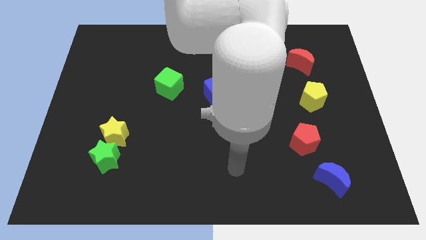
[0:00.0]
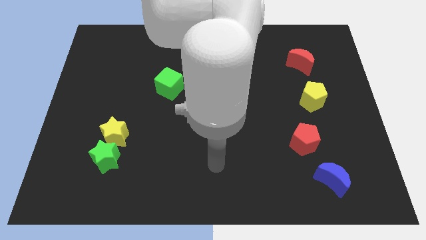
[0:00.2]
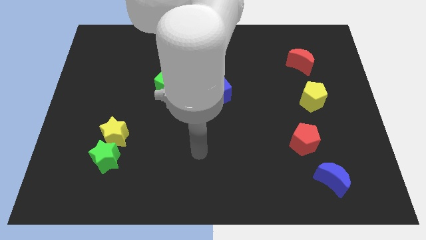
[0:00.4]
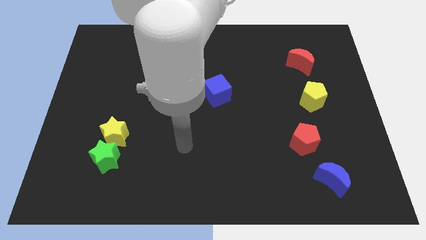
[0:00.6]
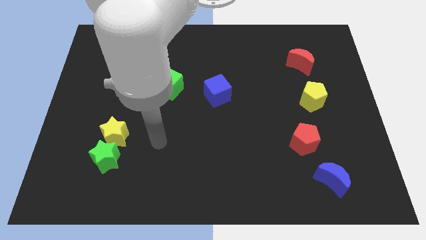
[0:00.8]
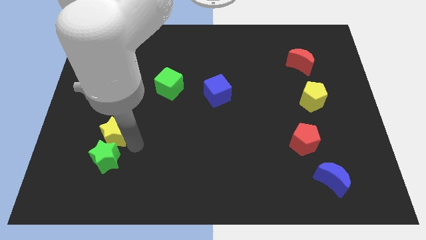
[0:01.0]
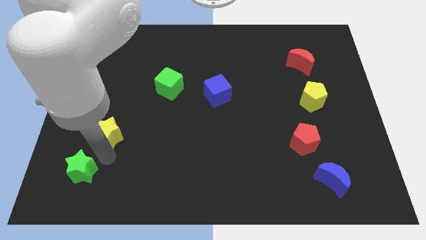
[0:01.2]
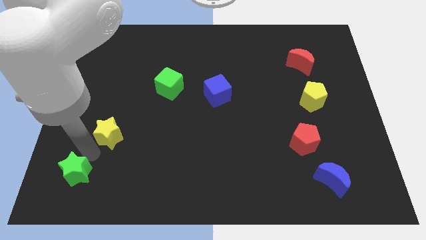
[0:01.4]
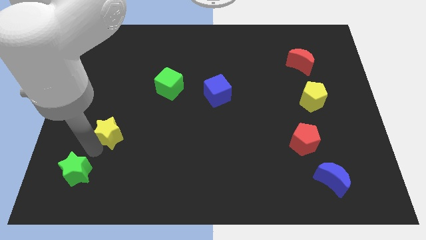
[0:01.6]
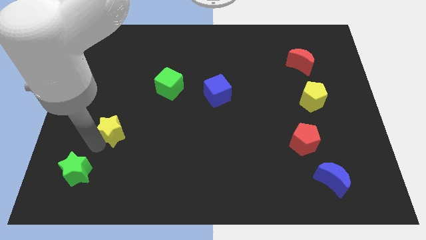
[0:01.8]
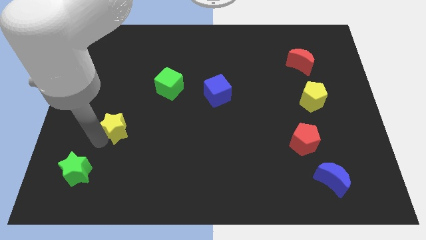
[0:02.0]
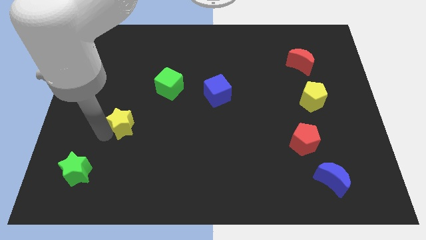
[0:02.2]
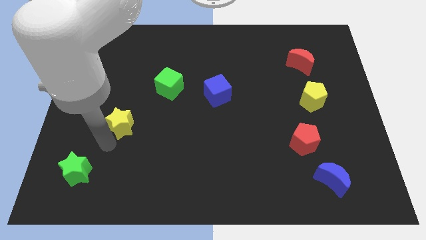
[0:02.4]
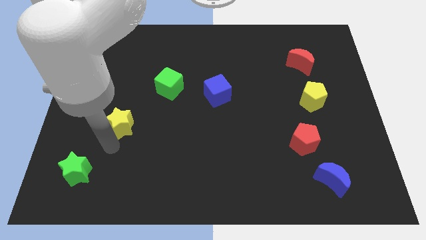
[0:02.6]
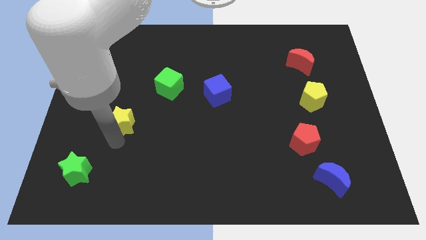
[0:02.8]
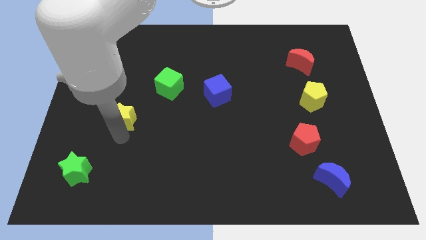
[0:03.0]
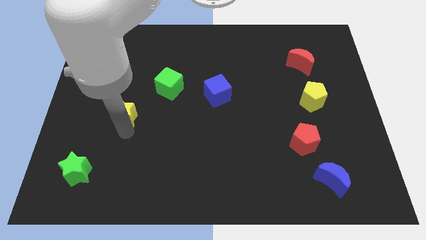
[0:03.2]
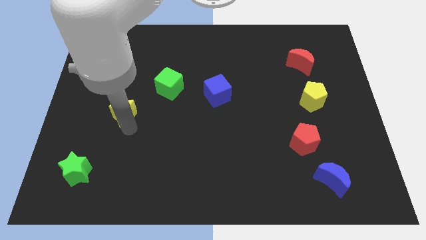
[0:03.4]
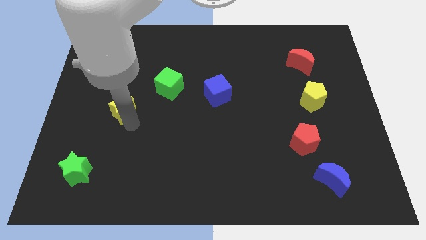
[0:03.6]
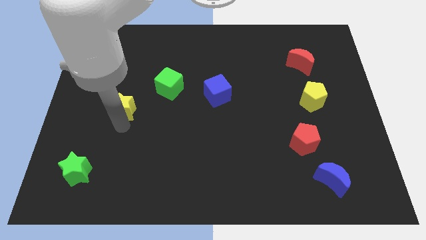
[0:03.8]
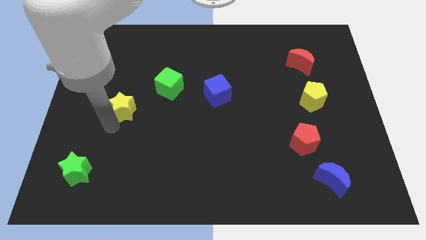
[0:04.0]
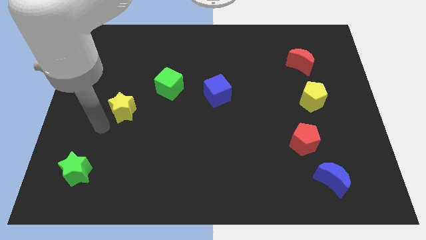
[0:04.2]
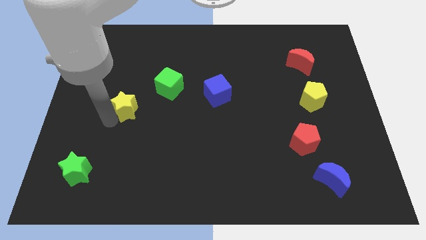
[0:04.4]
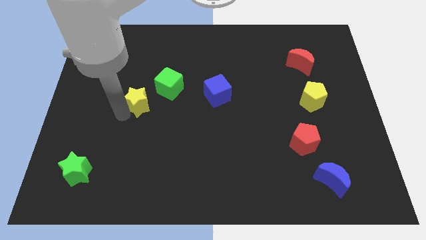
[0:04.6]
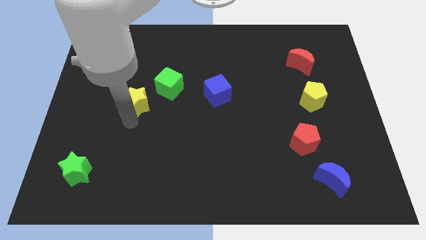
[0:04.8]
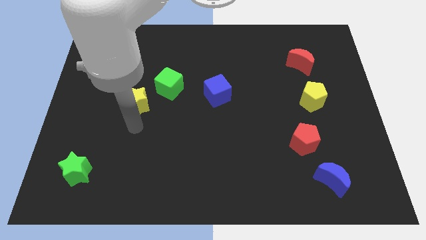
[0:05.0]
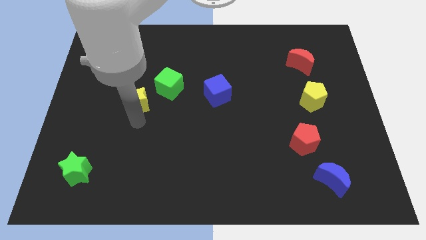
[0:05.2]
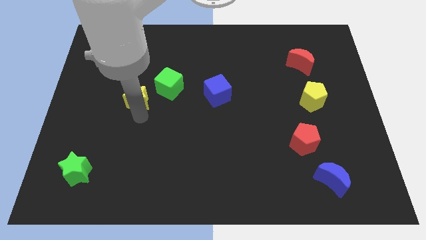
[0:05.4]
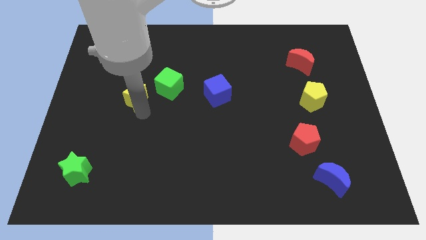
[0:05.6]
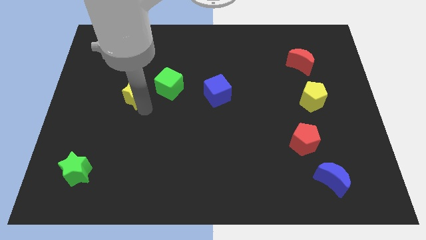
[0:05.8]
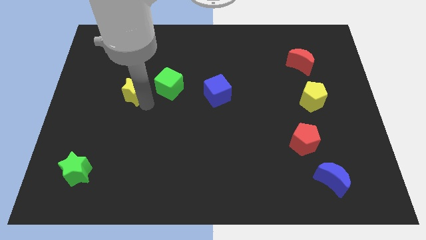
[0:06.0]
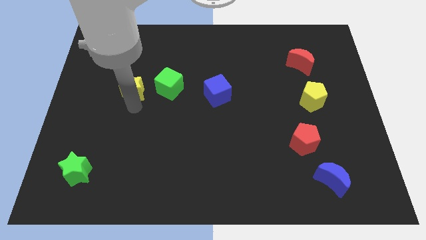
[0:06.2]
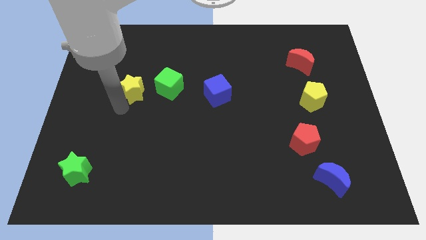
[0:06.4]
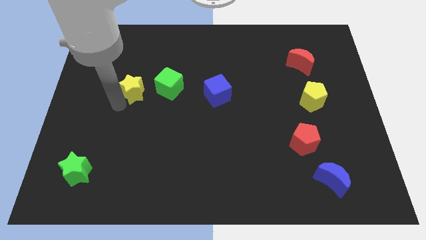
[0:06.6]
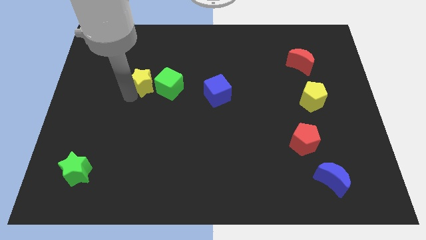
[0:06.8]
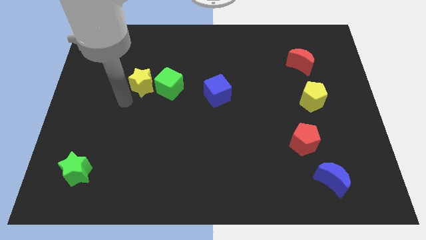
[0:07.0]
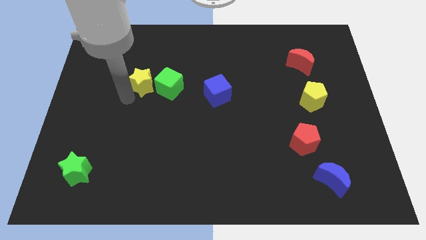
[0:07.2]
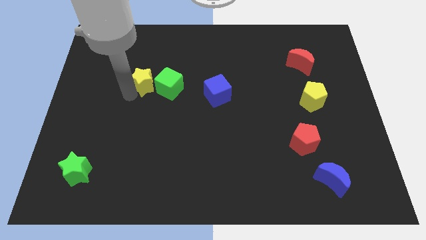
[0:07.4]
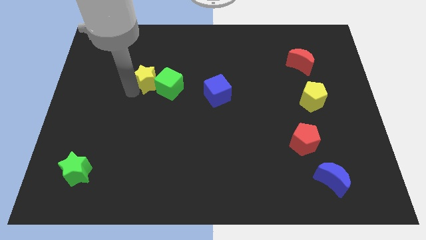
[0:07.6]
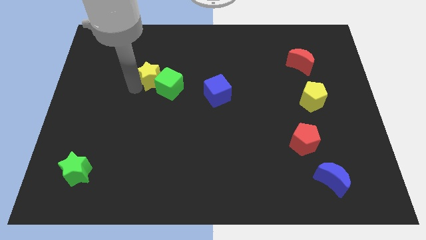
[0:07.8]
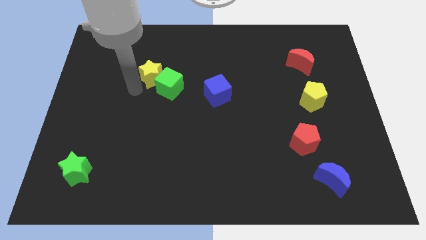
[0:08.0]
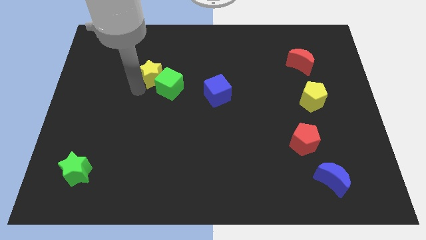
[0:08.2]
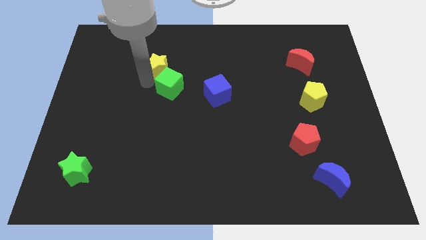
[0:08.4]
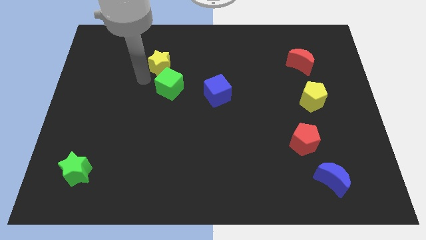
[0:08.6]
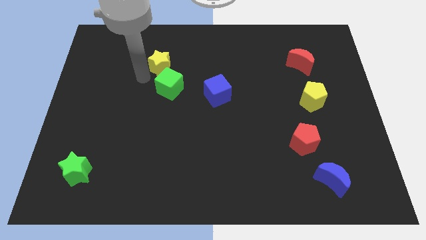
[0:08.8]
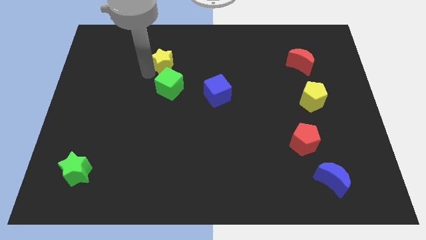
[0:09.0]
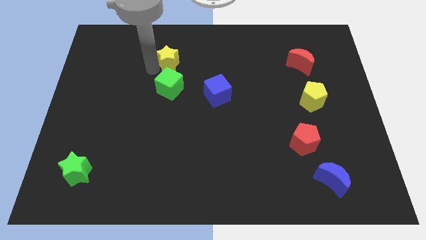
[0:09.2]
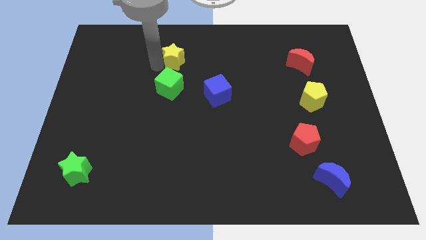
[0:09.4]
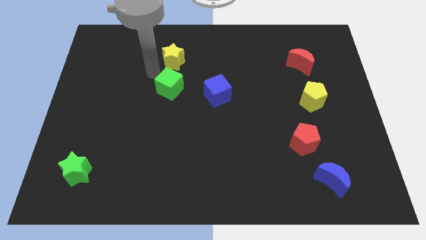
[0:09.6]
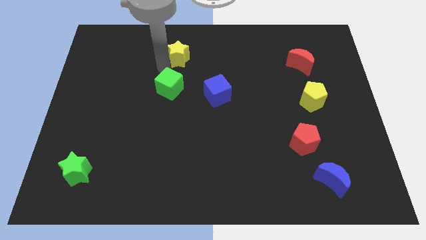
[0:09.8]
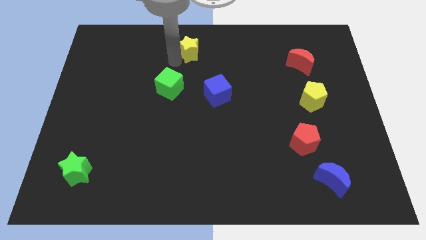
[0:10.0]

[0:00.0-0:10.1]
put the yellow star to the top

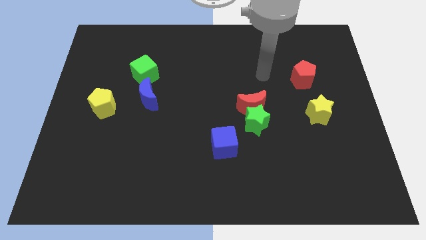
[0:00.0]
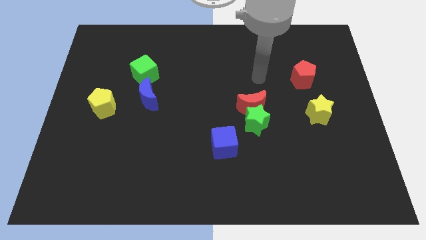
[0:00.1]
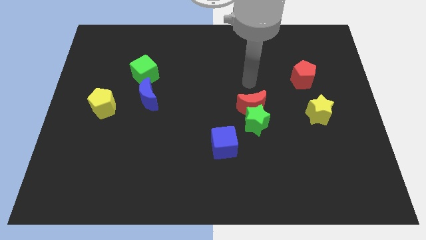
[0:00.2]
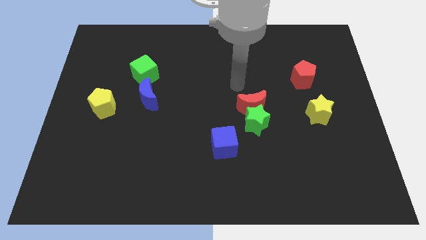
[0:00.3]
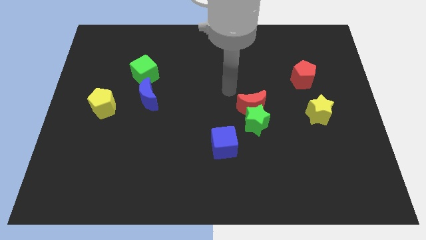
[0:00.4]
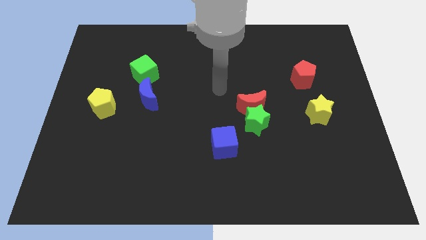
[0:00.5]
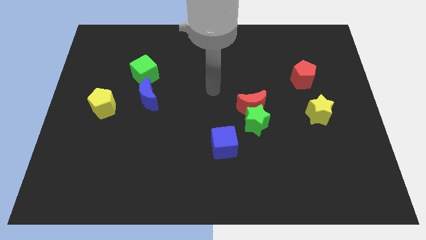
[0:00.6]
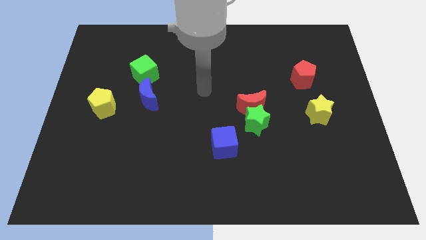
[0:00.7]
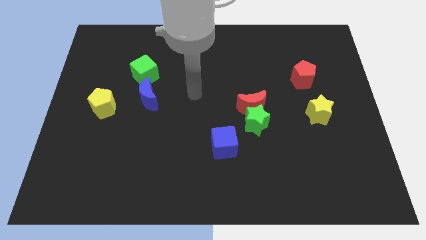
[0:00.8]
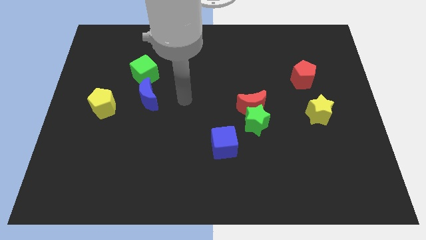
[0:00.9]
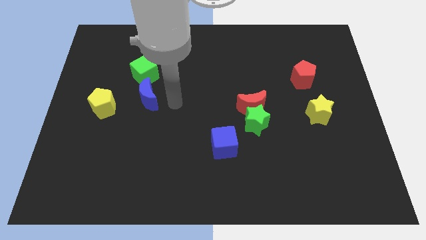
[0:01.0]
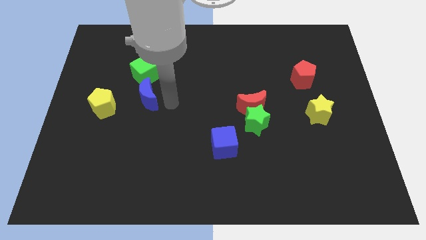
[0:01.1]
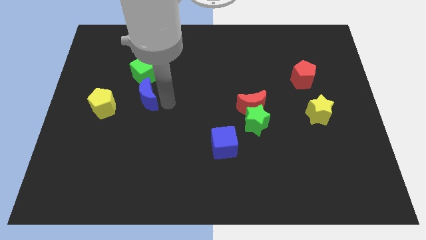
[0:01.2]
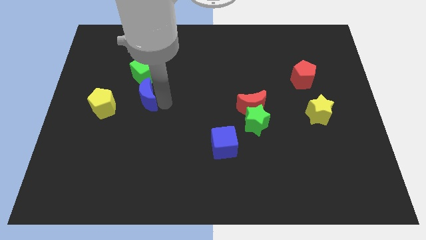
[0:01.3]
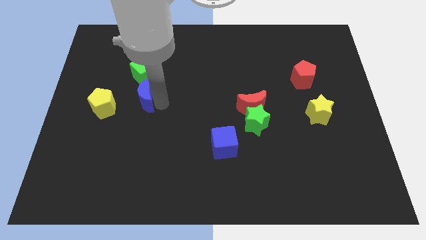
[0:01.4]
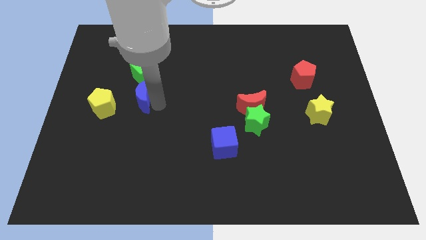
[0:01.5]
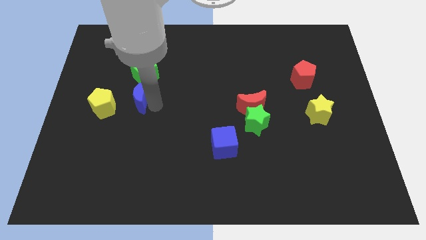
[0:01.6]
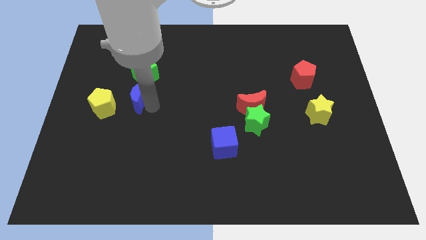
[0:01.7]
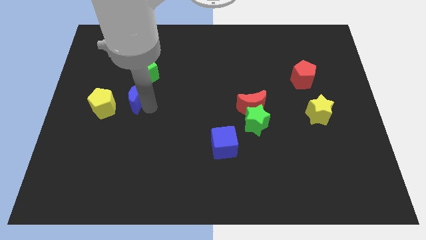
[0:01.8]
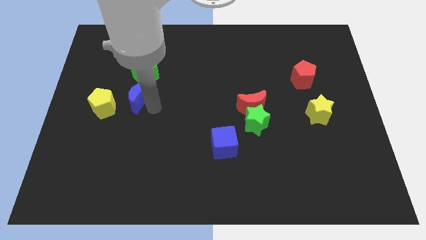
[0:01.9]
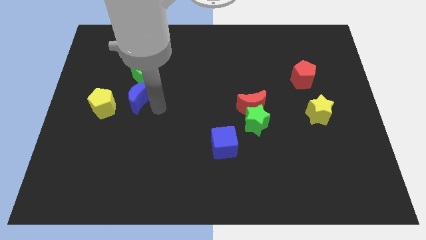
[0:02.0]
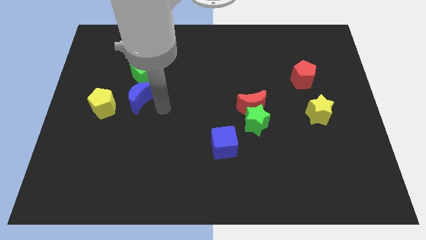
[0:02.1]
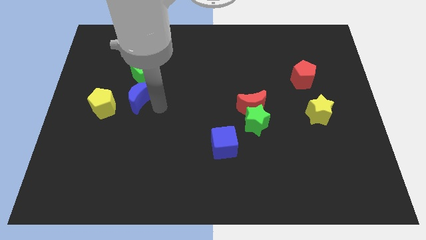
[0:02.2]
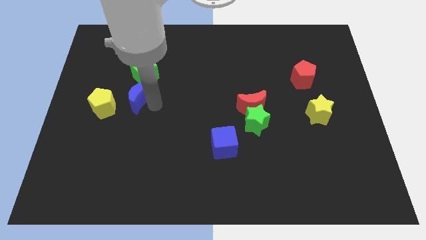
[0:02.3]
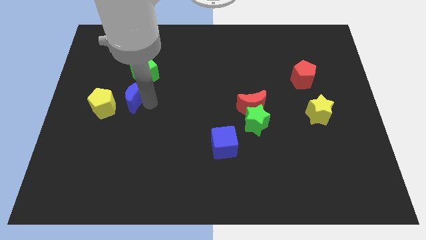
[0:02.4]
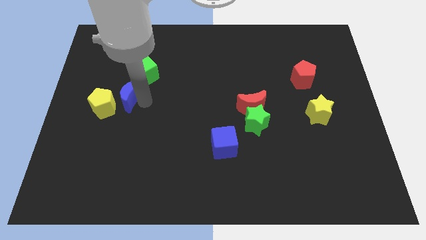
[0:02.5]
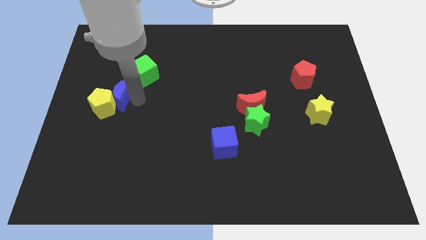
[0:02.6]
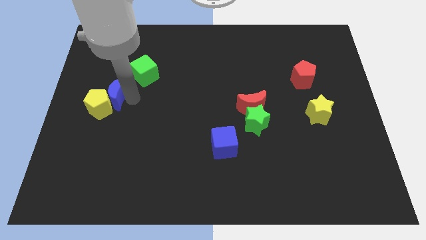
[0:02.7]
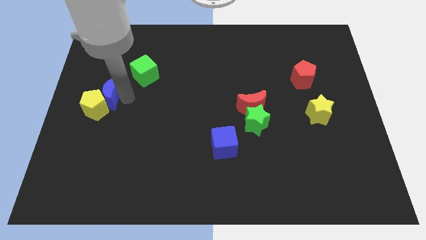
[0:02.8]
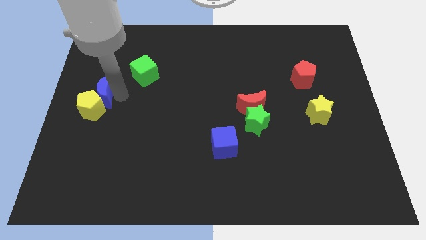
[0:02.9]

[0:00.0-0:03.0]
put the blue moon to the center left
